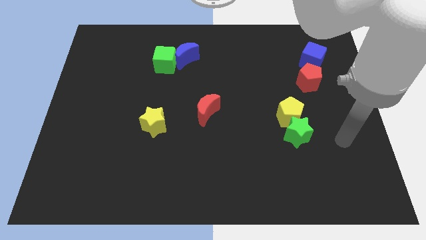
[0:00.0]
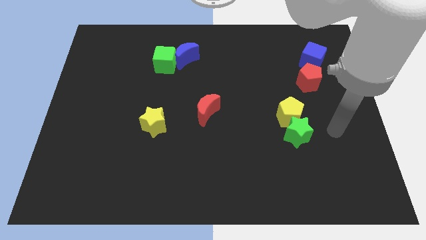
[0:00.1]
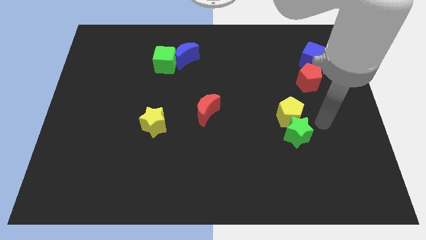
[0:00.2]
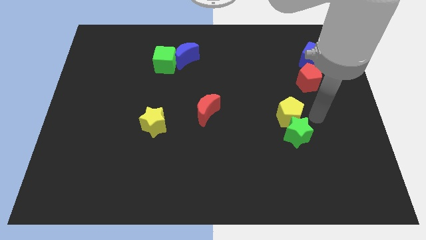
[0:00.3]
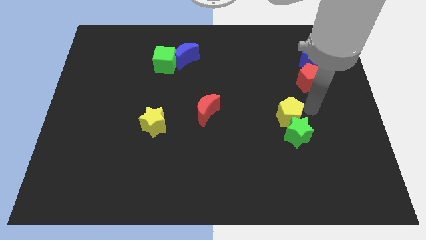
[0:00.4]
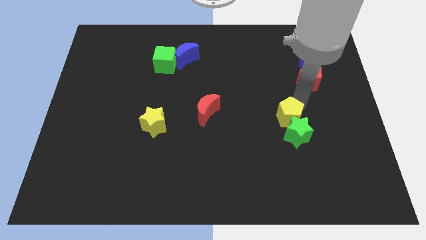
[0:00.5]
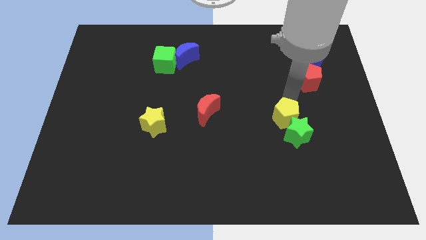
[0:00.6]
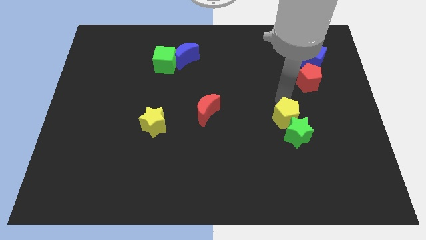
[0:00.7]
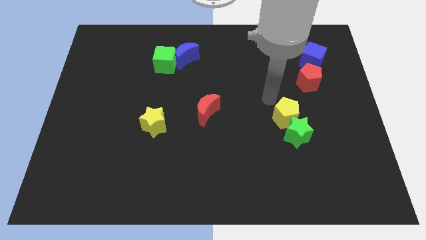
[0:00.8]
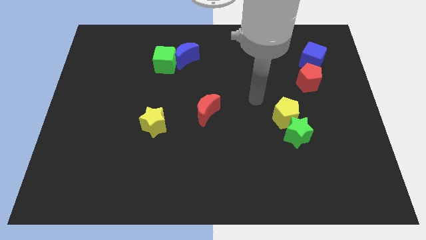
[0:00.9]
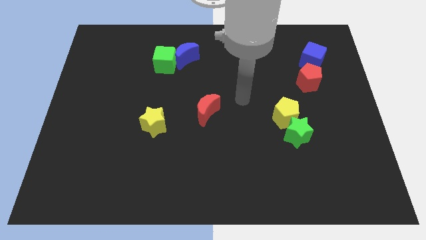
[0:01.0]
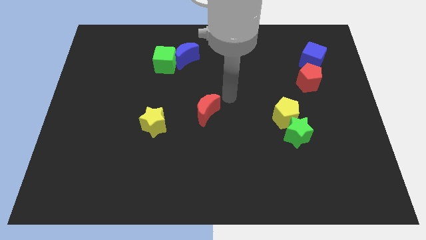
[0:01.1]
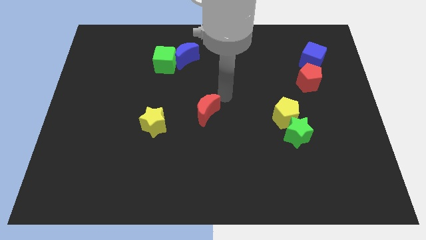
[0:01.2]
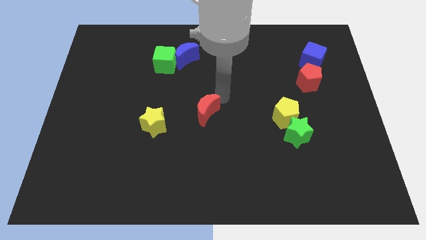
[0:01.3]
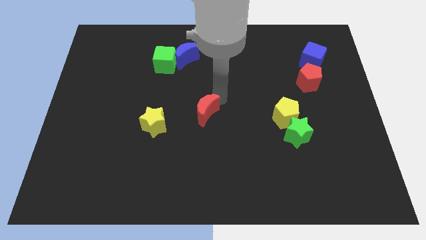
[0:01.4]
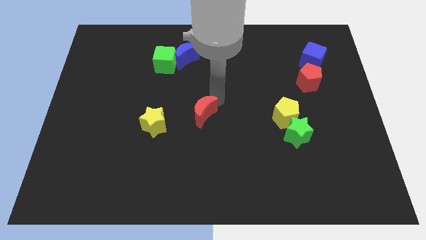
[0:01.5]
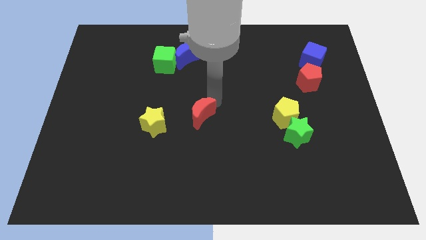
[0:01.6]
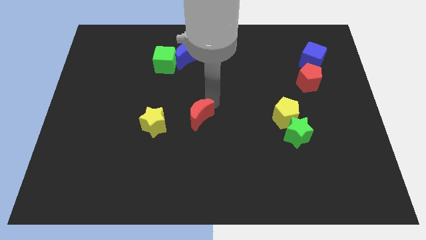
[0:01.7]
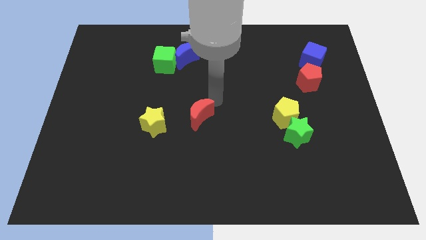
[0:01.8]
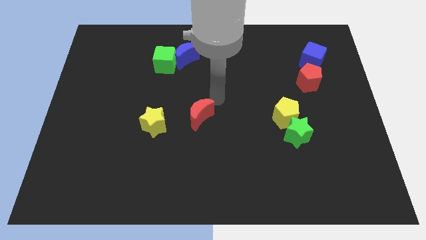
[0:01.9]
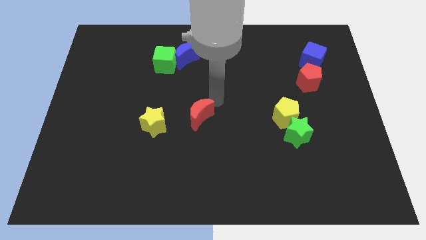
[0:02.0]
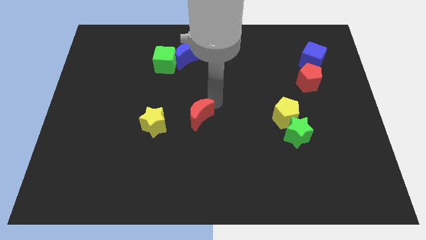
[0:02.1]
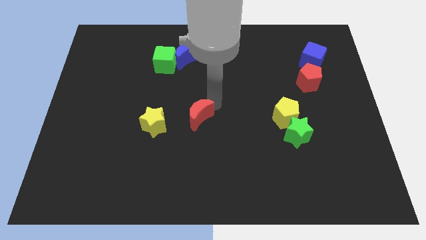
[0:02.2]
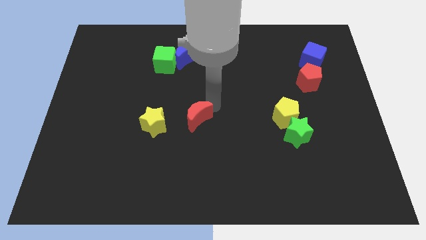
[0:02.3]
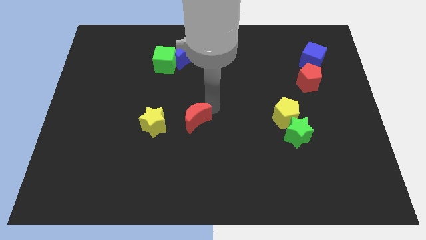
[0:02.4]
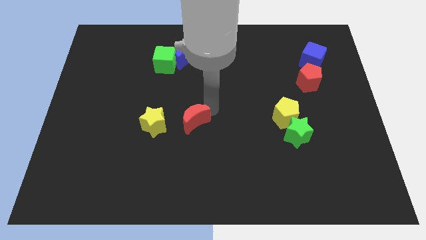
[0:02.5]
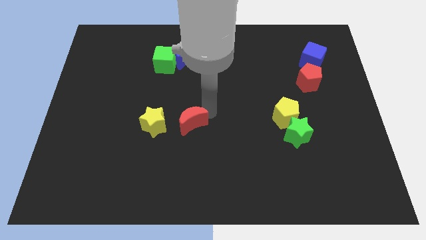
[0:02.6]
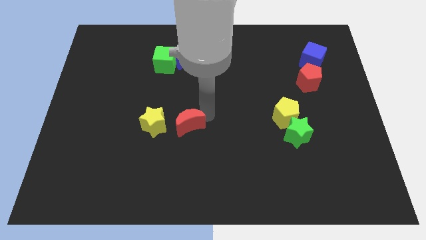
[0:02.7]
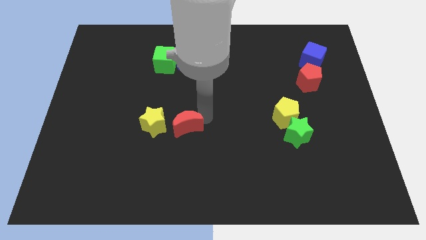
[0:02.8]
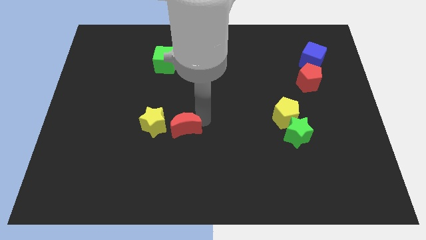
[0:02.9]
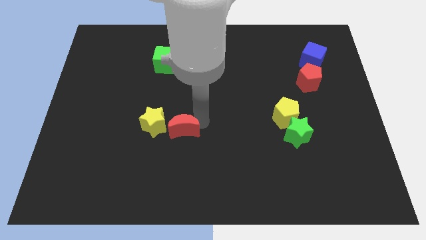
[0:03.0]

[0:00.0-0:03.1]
slightly slide the red moon downwards and left

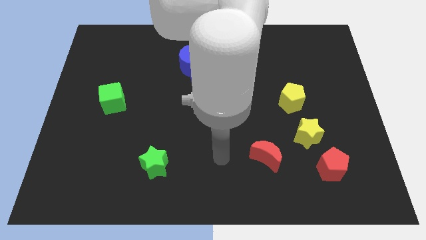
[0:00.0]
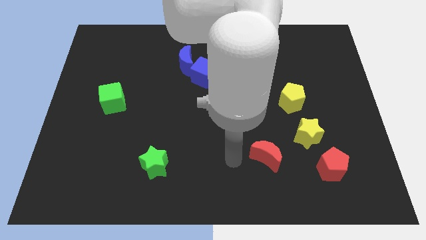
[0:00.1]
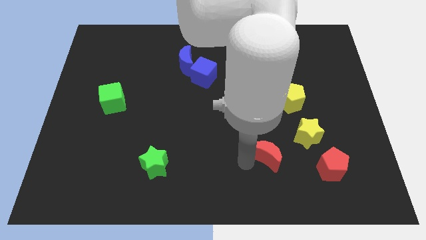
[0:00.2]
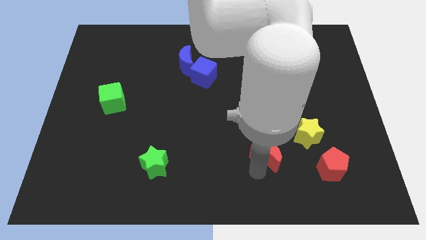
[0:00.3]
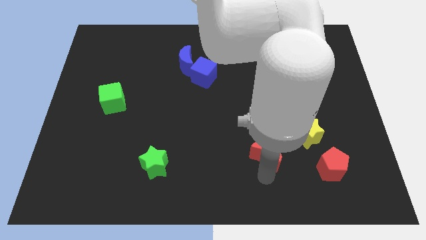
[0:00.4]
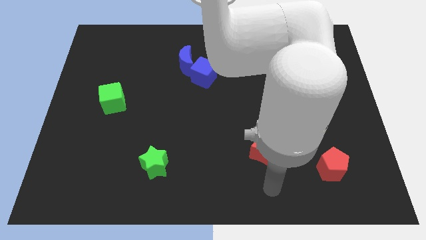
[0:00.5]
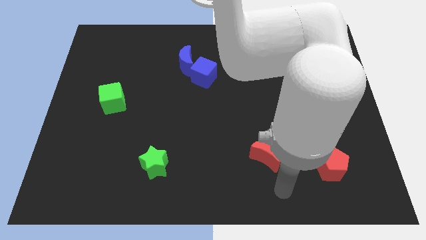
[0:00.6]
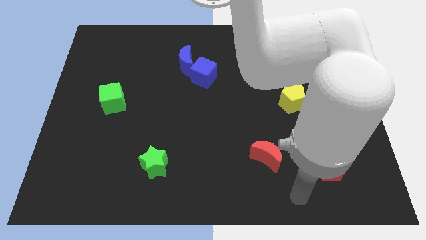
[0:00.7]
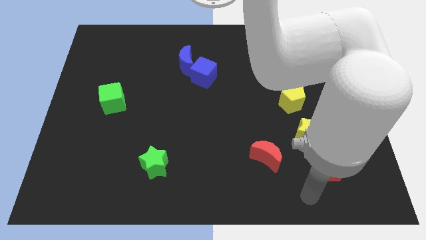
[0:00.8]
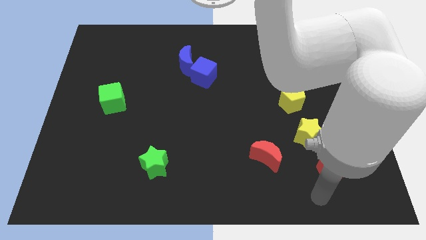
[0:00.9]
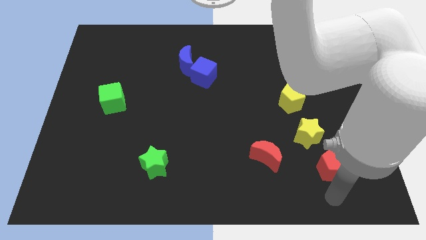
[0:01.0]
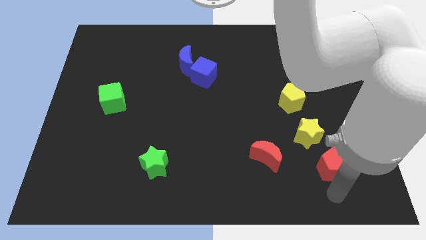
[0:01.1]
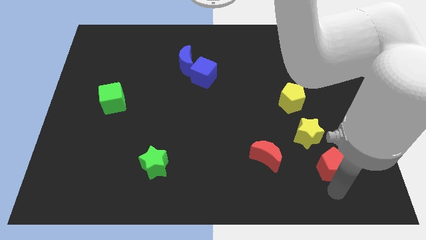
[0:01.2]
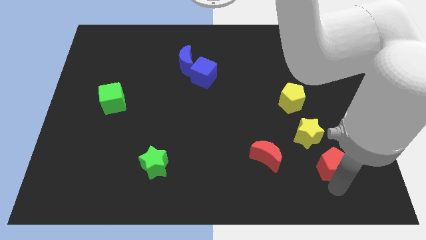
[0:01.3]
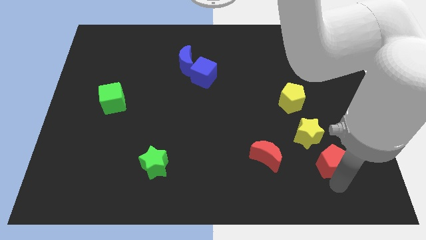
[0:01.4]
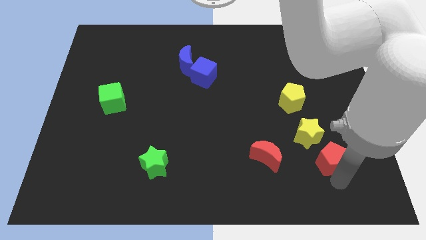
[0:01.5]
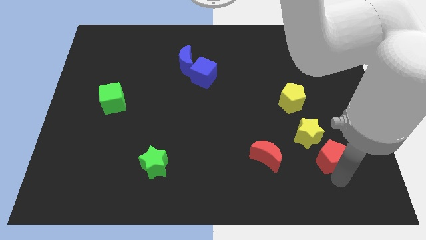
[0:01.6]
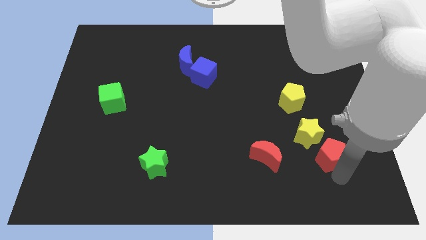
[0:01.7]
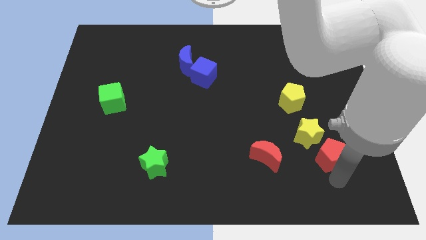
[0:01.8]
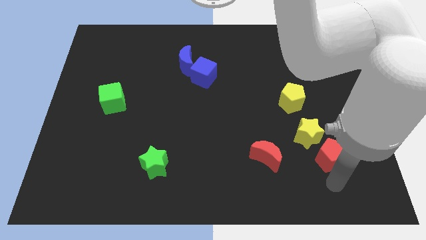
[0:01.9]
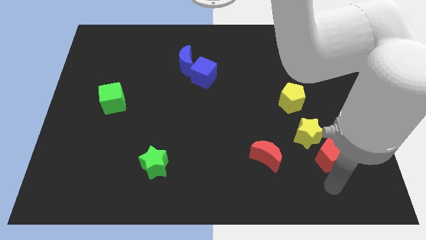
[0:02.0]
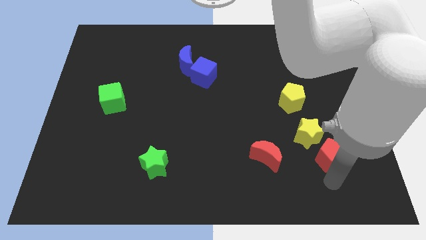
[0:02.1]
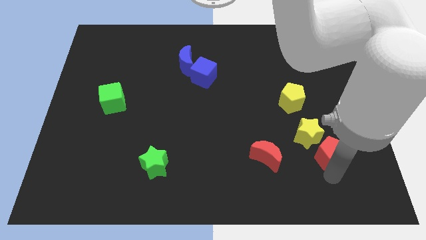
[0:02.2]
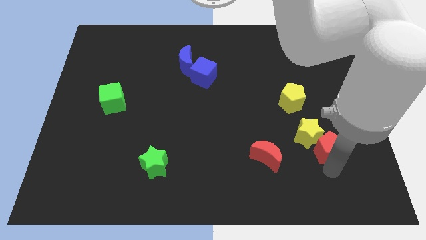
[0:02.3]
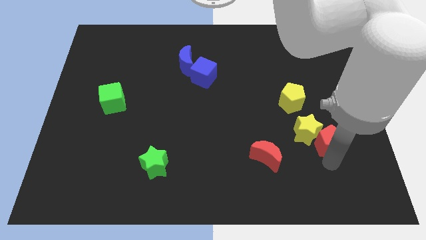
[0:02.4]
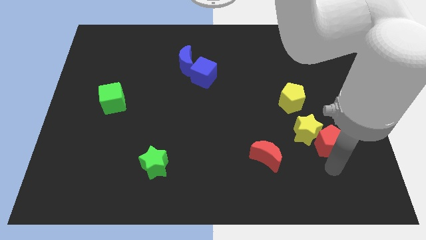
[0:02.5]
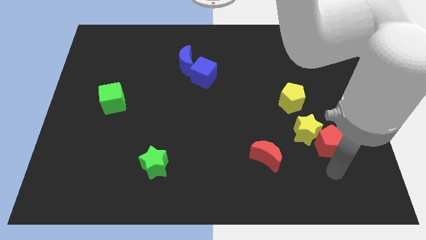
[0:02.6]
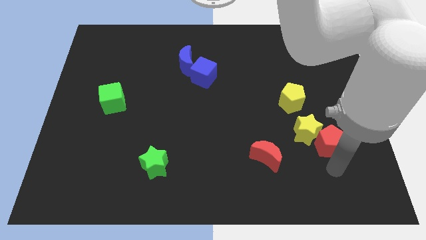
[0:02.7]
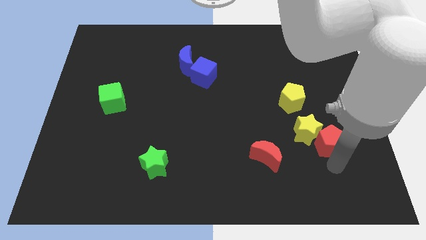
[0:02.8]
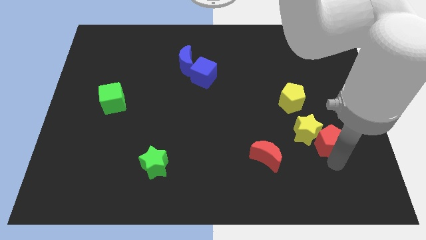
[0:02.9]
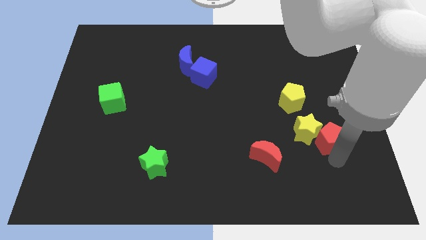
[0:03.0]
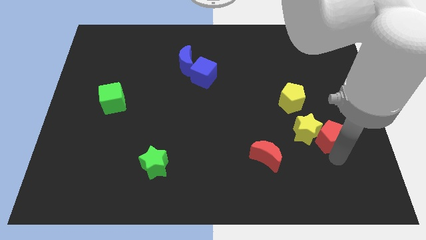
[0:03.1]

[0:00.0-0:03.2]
slide the red pentagon somewhat up

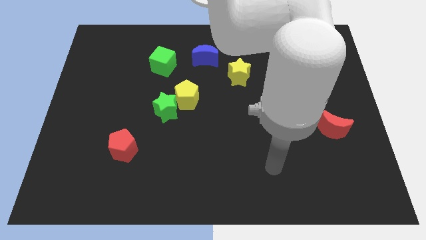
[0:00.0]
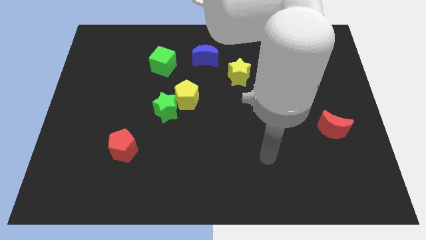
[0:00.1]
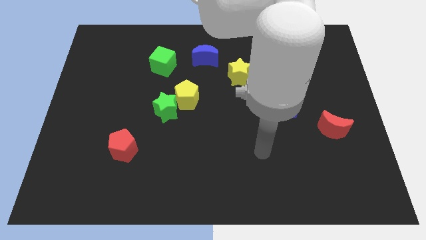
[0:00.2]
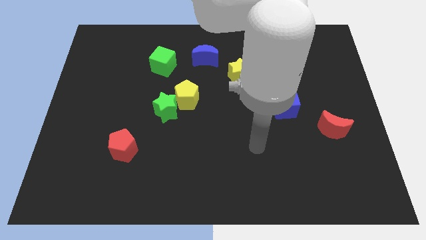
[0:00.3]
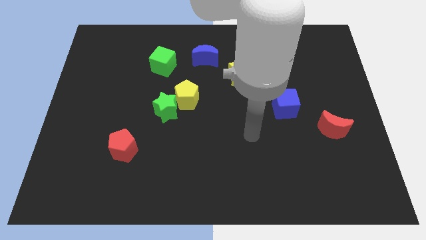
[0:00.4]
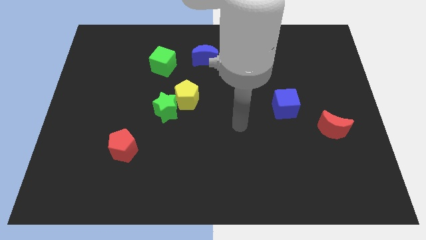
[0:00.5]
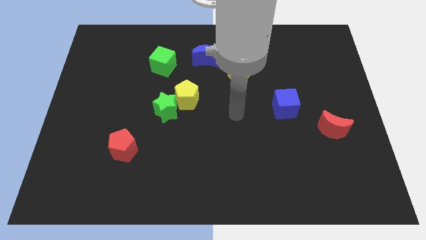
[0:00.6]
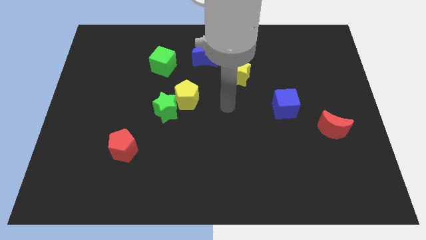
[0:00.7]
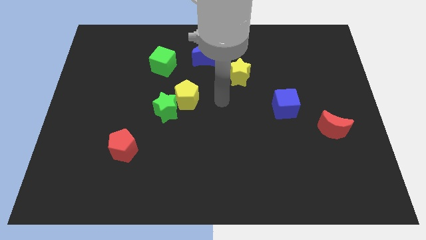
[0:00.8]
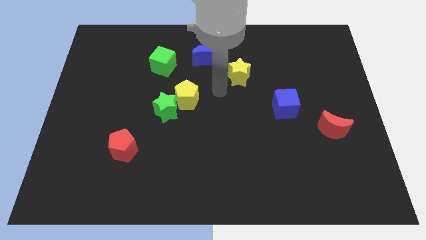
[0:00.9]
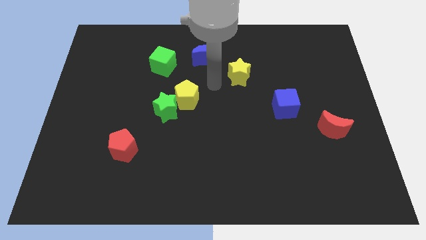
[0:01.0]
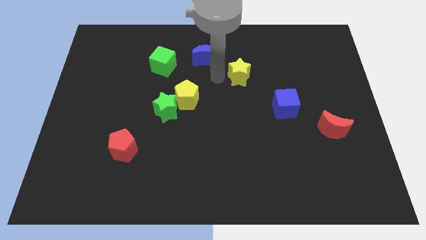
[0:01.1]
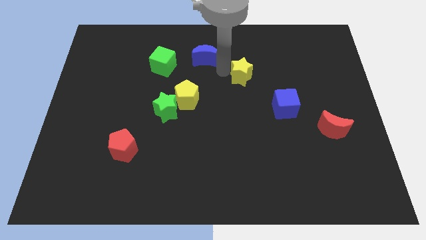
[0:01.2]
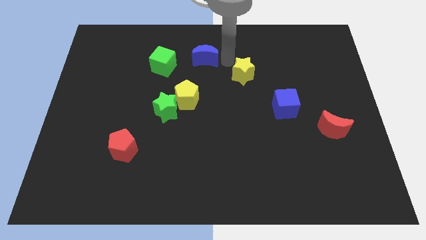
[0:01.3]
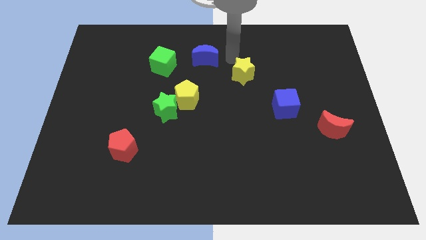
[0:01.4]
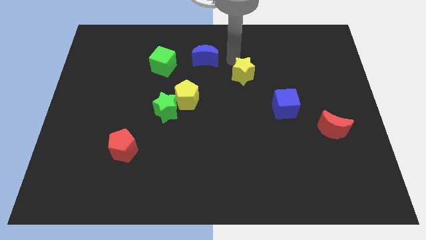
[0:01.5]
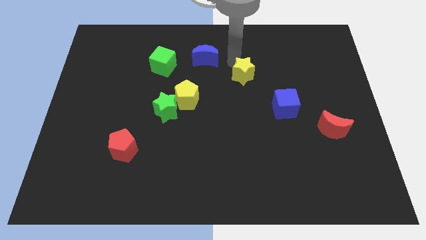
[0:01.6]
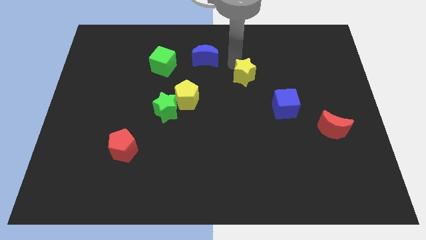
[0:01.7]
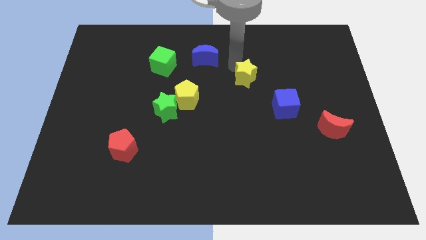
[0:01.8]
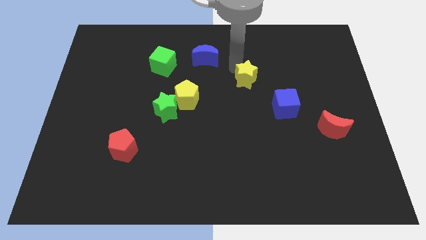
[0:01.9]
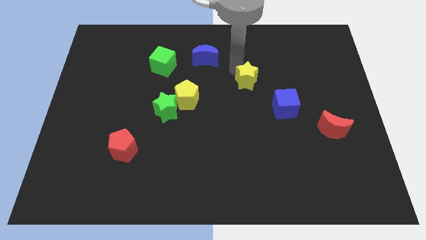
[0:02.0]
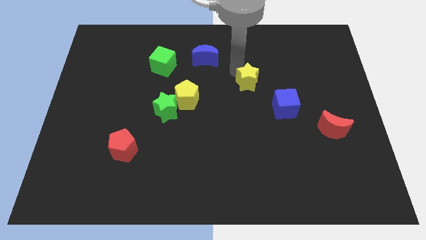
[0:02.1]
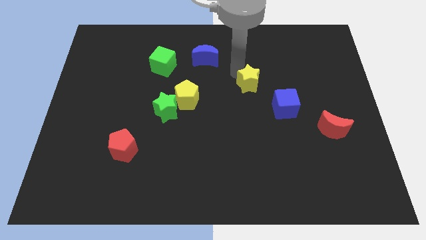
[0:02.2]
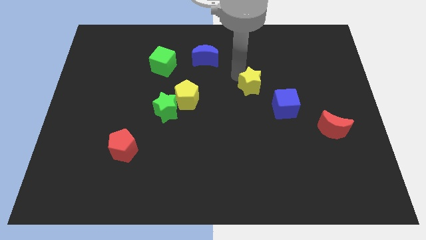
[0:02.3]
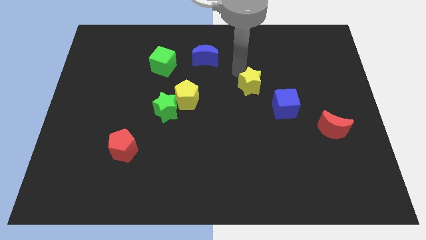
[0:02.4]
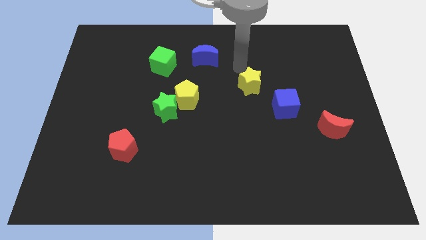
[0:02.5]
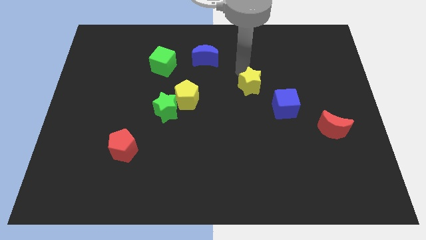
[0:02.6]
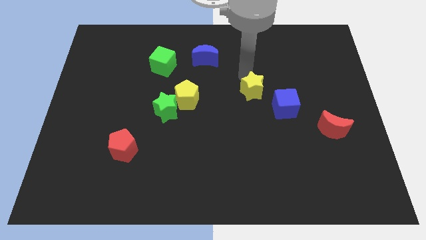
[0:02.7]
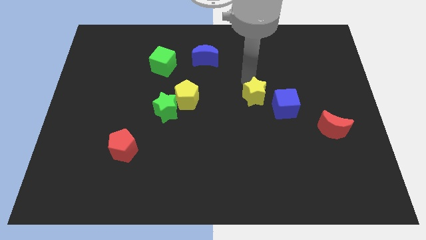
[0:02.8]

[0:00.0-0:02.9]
push the yellow star a bit downwards and then right
